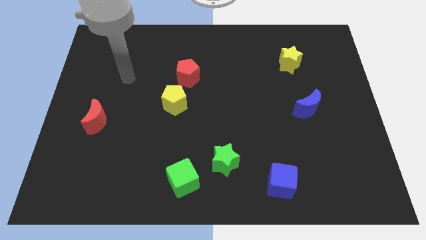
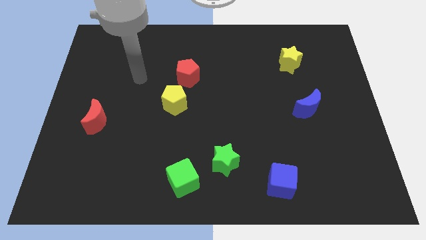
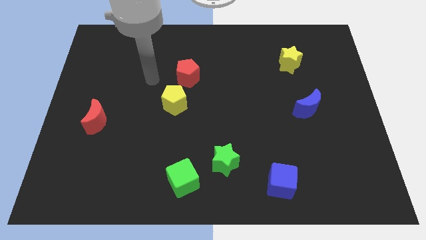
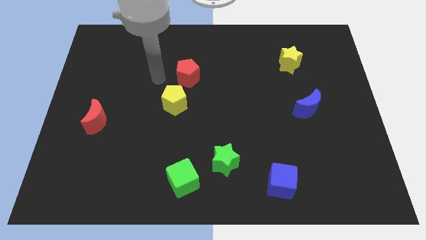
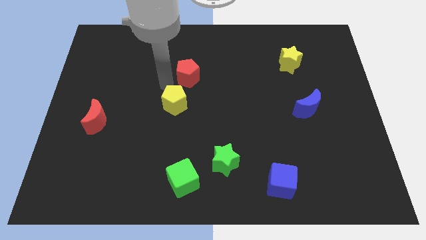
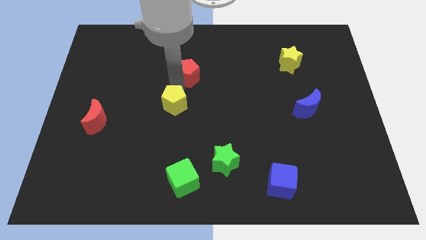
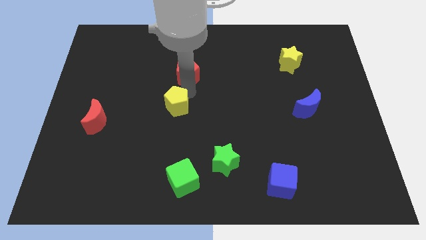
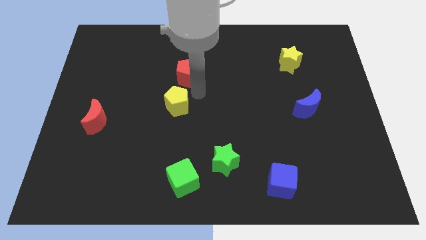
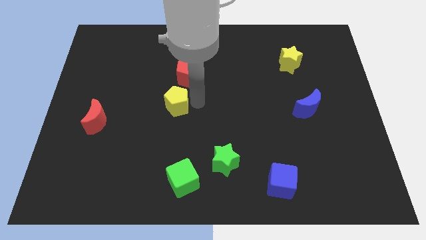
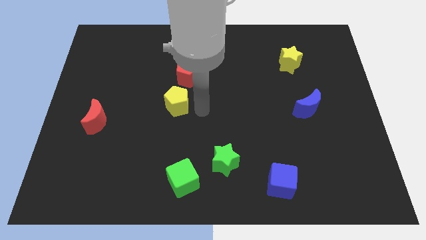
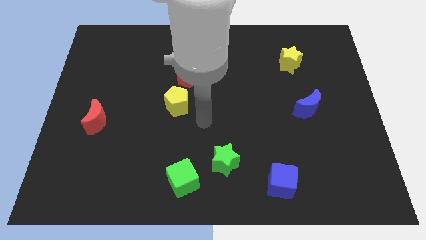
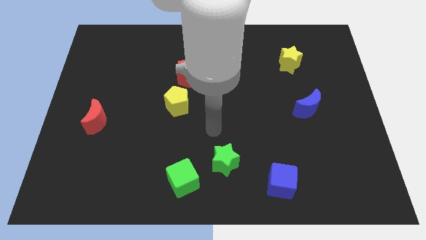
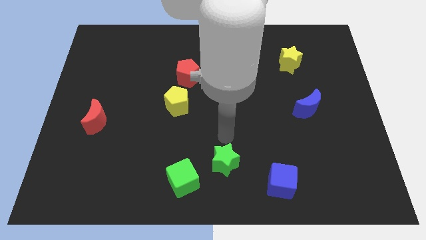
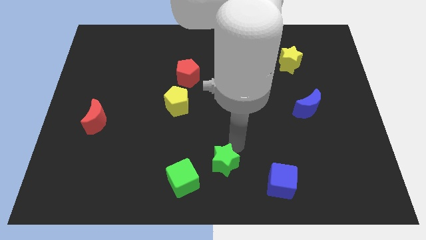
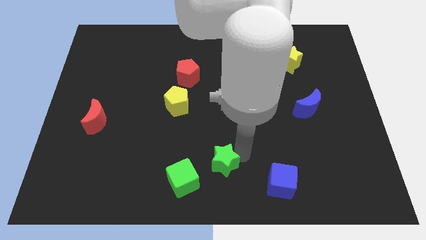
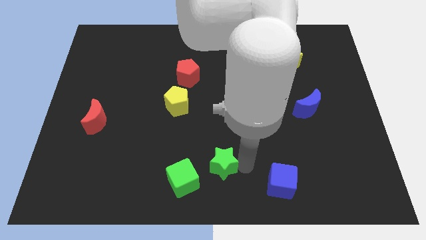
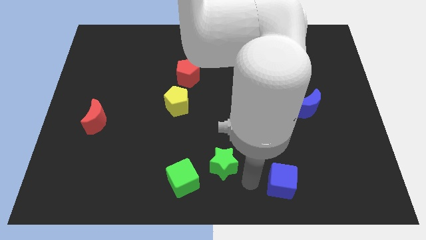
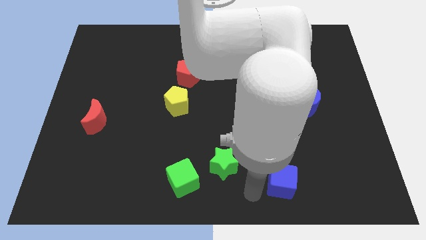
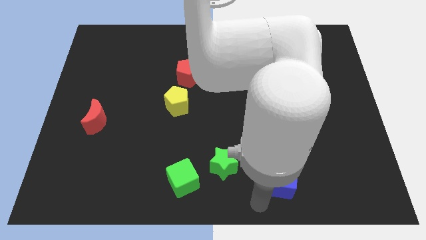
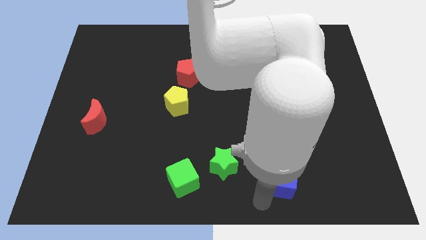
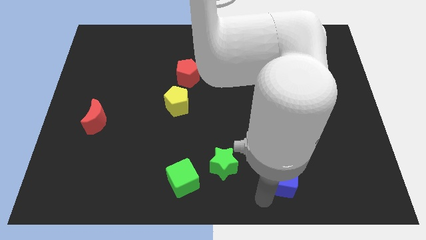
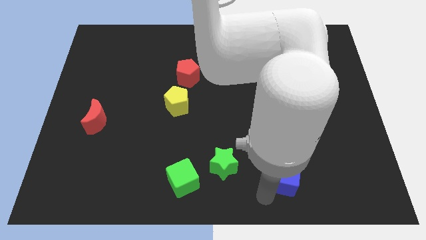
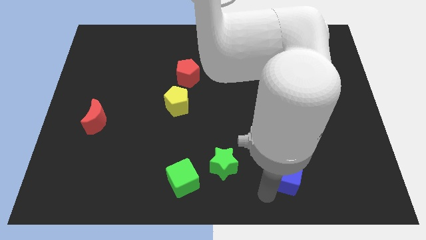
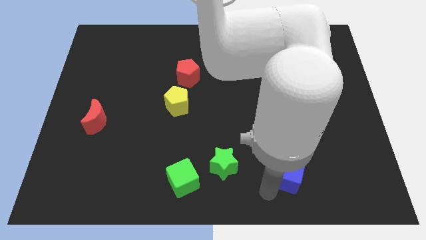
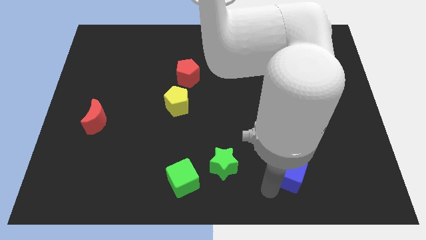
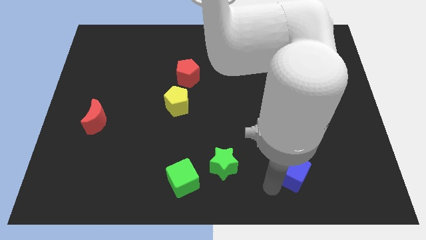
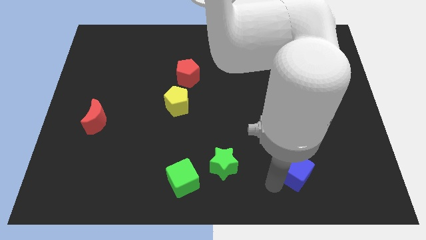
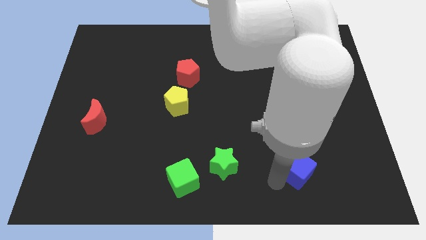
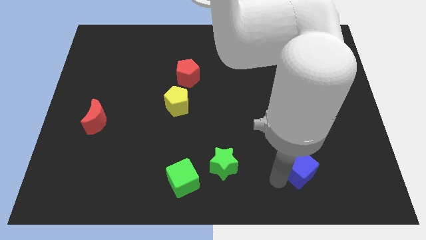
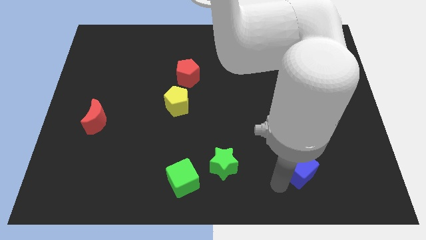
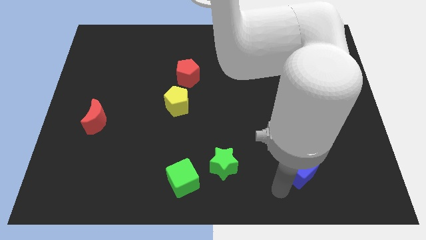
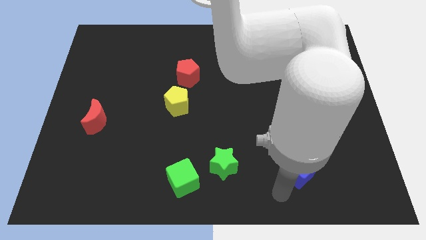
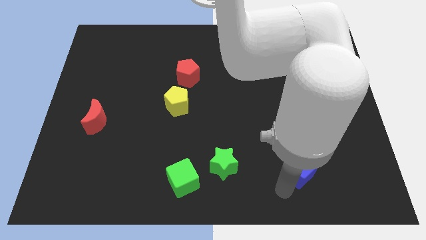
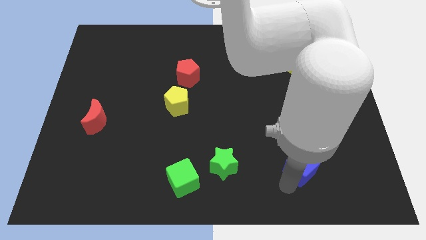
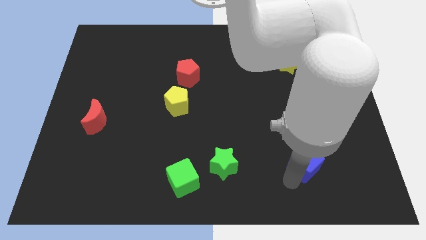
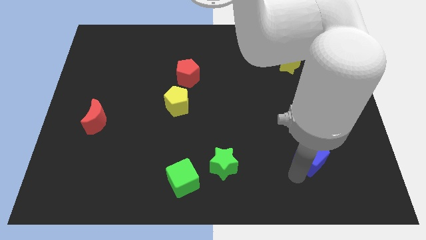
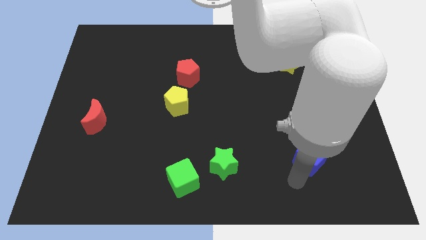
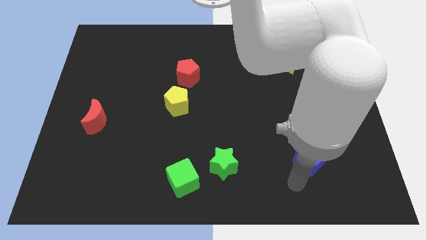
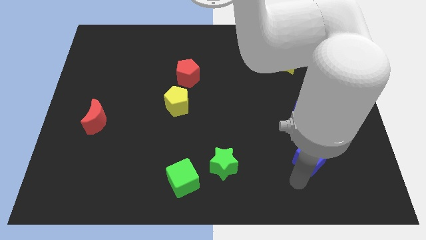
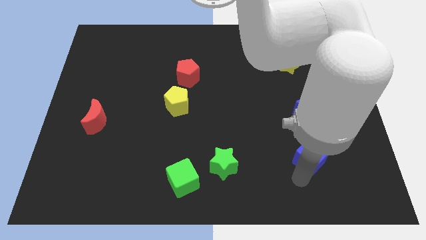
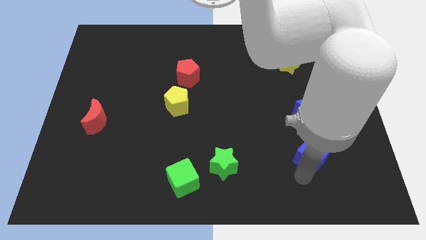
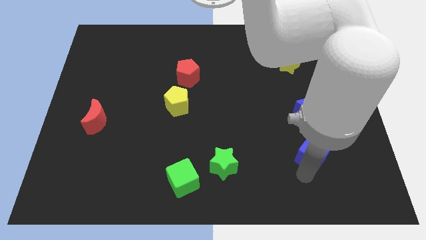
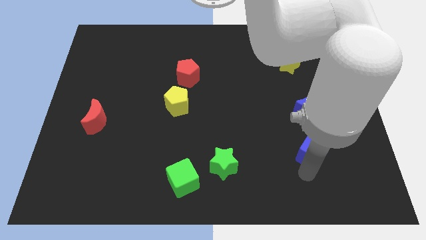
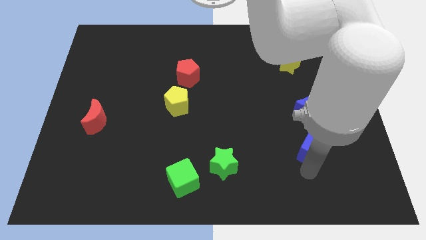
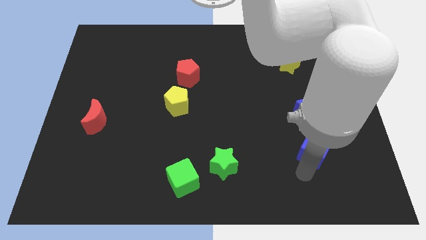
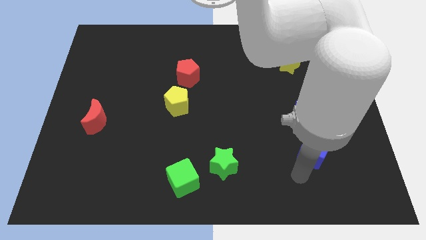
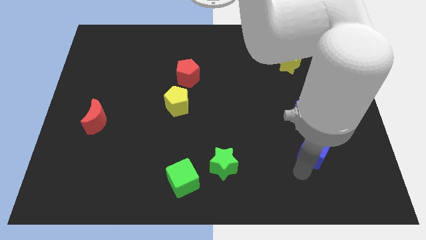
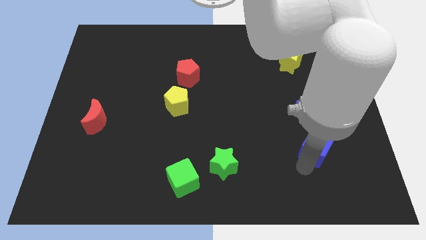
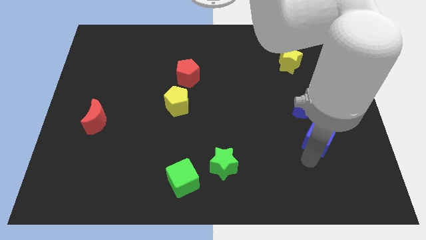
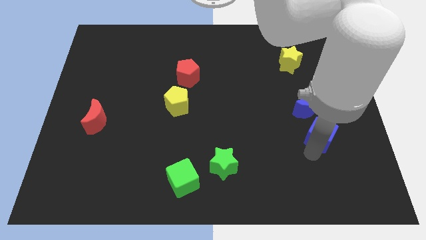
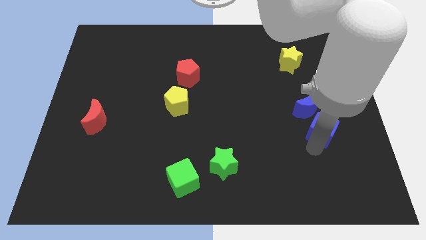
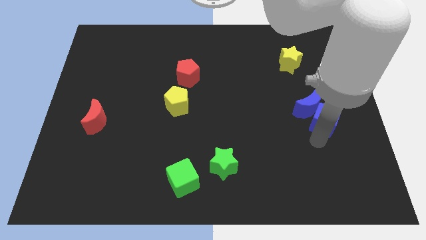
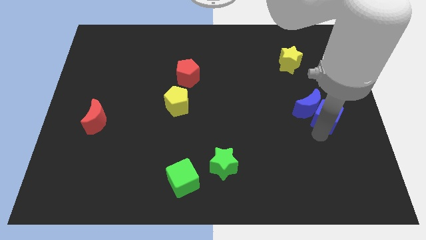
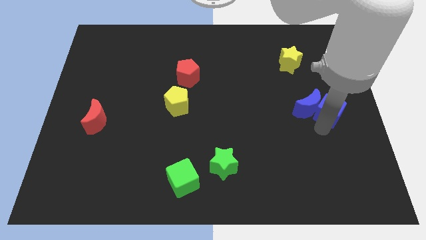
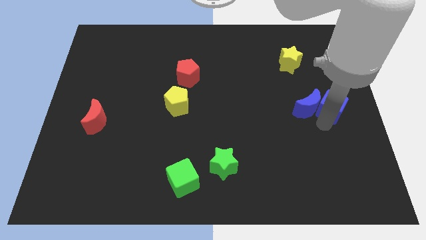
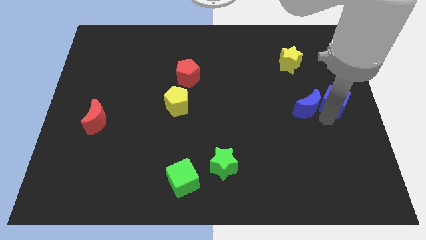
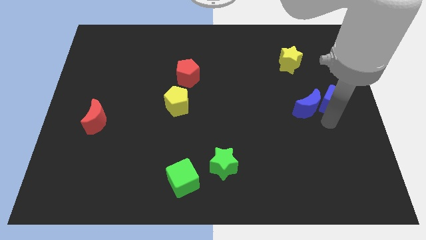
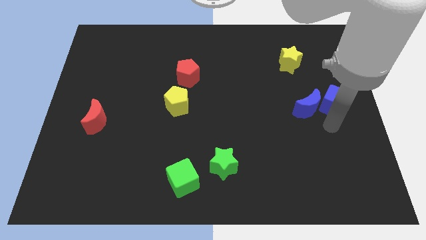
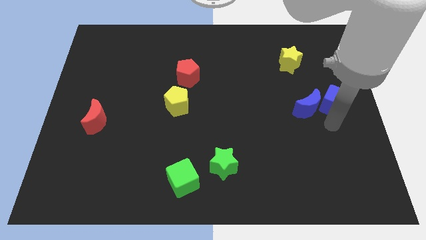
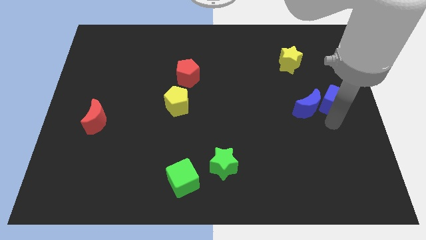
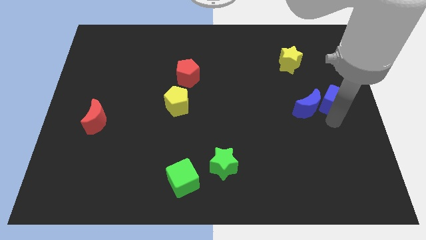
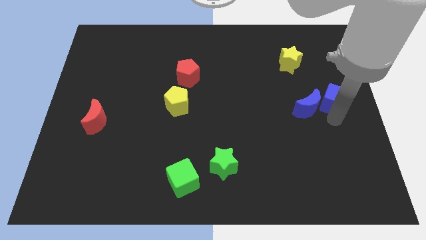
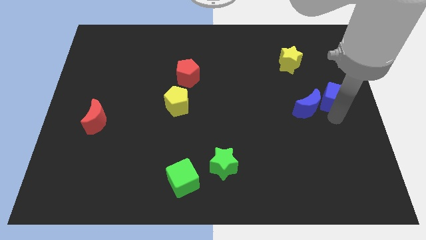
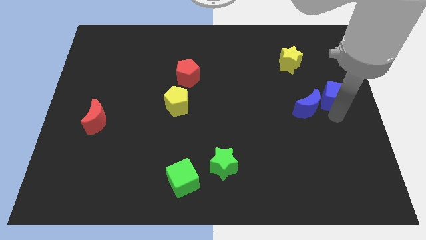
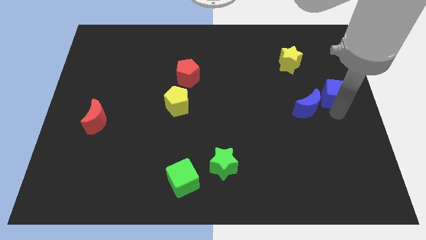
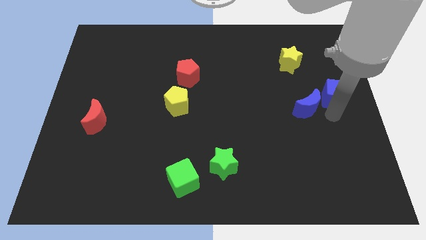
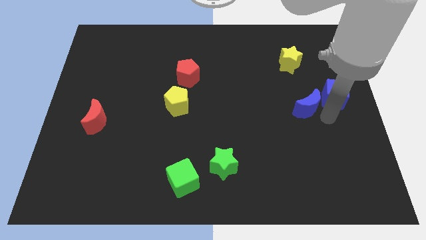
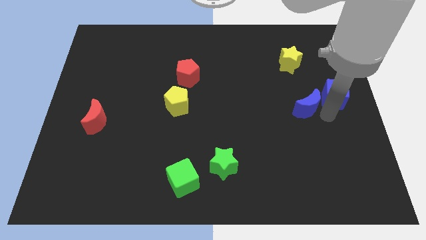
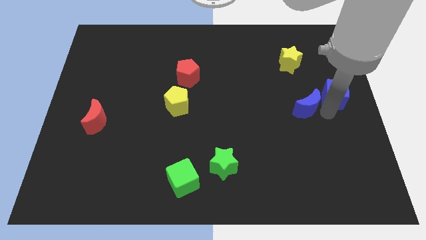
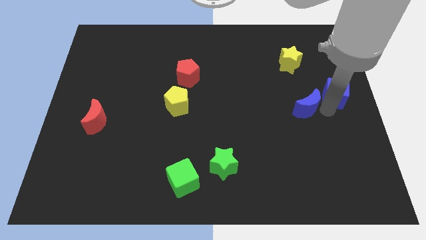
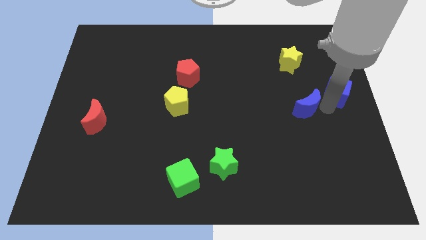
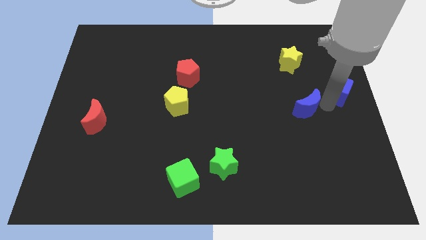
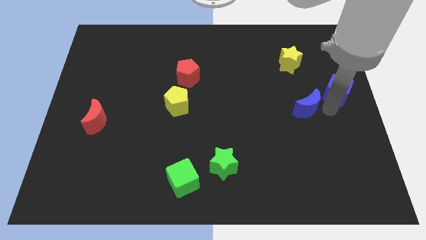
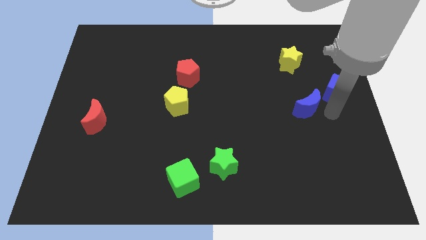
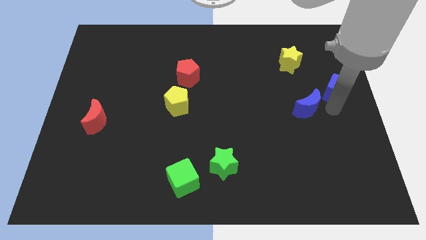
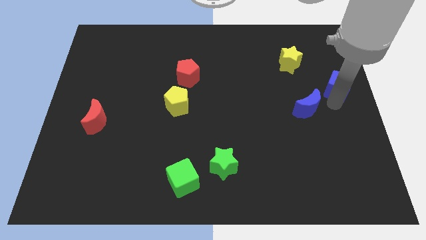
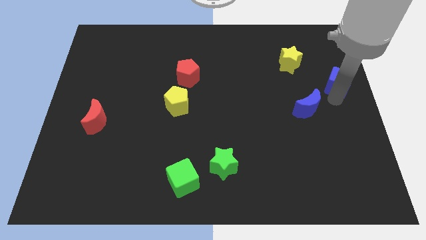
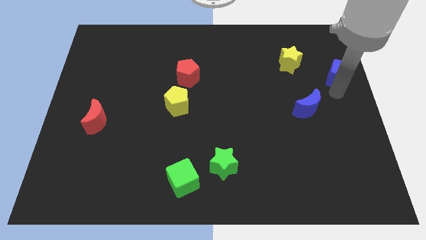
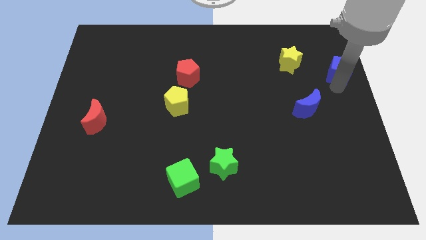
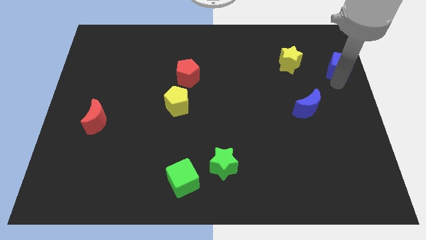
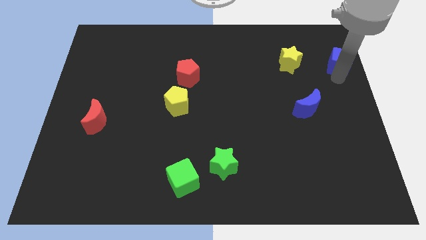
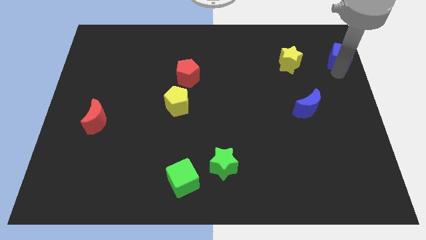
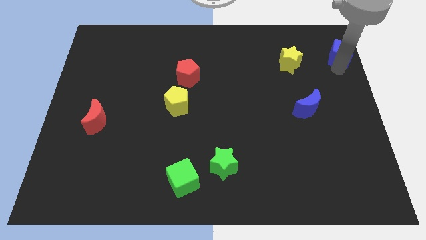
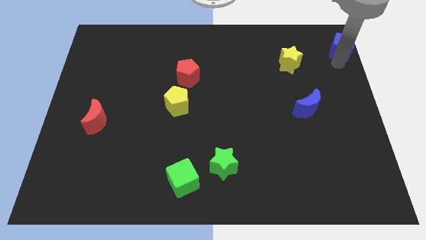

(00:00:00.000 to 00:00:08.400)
put the blue cube to the upper right corner
